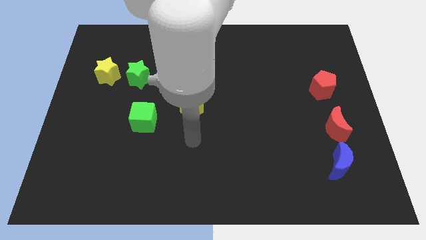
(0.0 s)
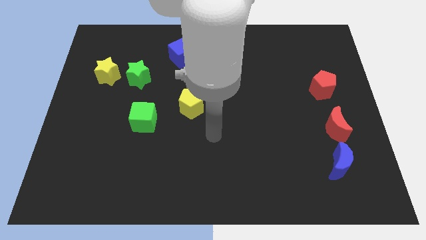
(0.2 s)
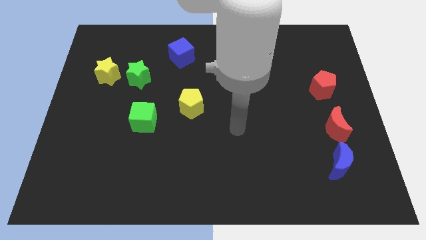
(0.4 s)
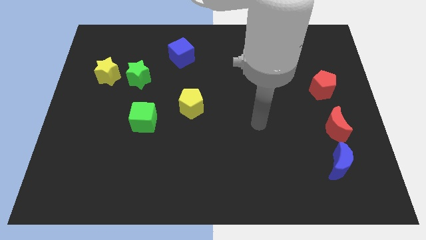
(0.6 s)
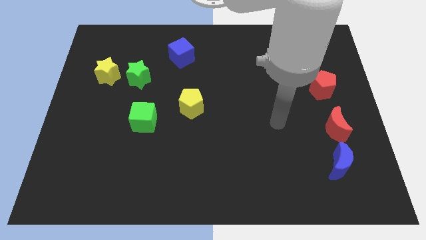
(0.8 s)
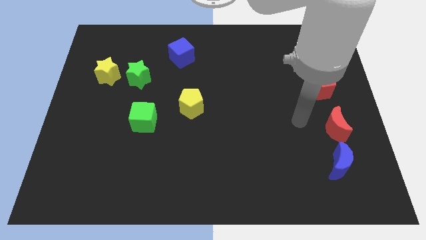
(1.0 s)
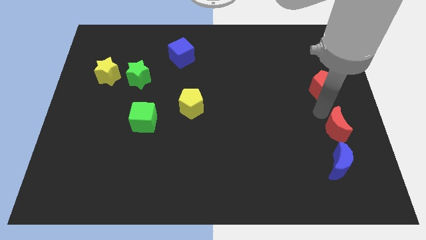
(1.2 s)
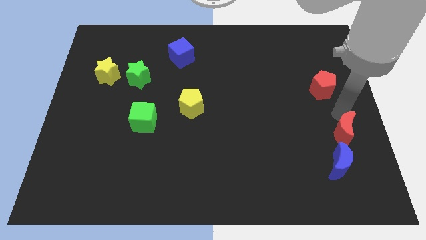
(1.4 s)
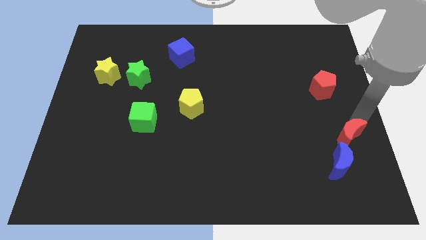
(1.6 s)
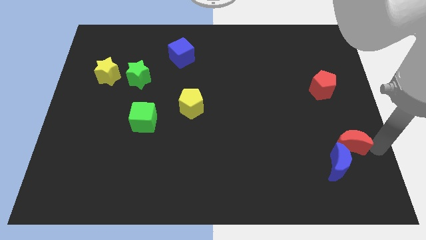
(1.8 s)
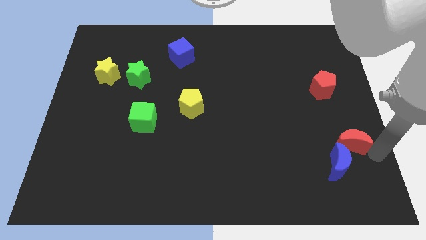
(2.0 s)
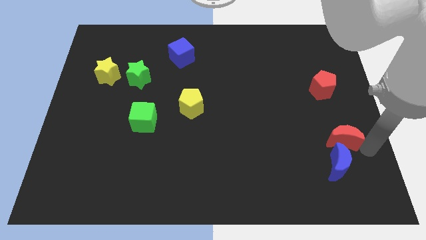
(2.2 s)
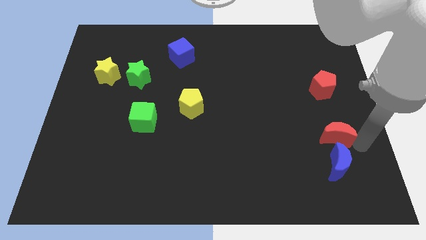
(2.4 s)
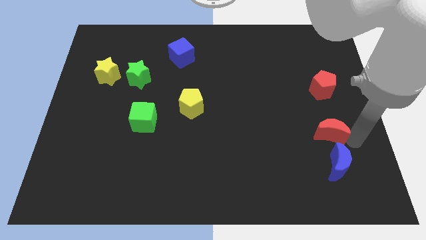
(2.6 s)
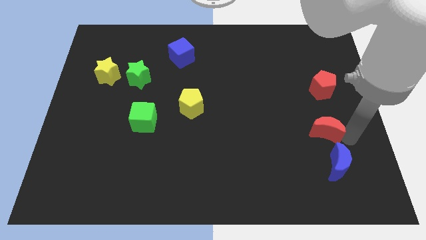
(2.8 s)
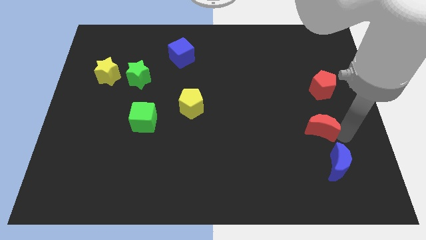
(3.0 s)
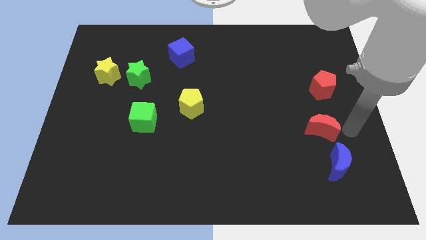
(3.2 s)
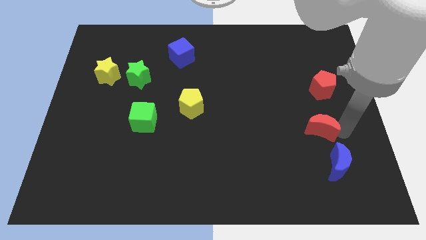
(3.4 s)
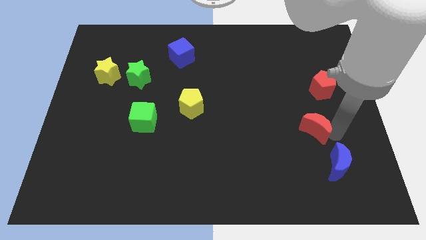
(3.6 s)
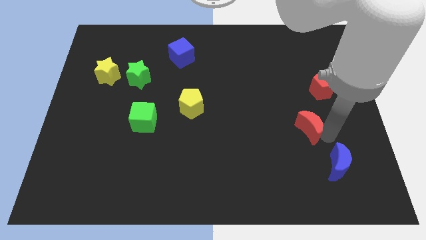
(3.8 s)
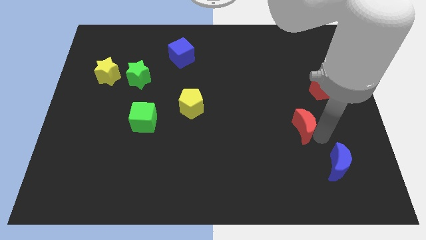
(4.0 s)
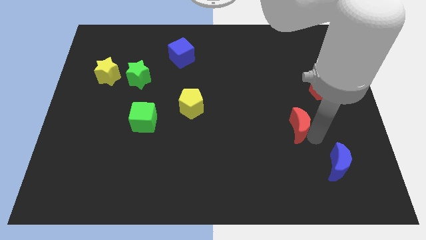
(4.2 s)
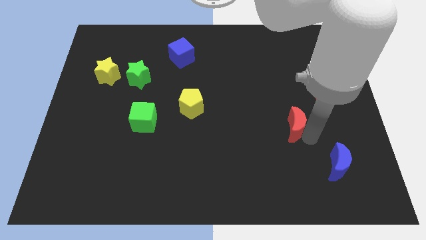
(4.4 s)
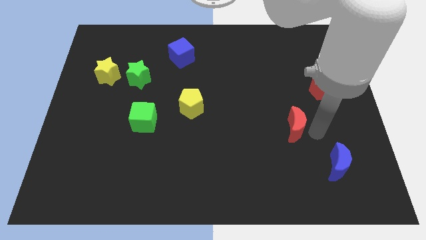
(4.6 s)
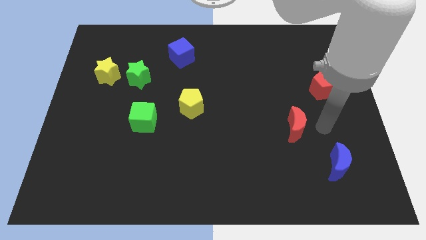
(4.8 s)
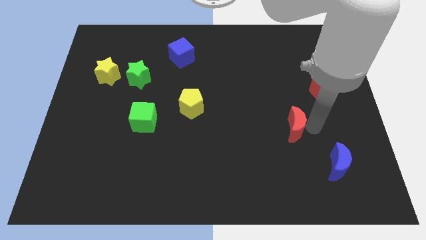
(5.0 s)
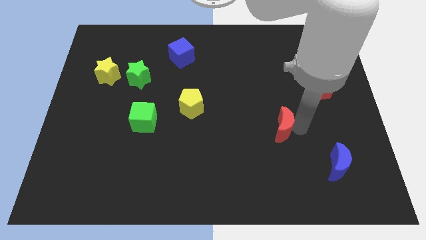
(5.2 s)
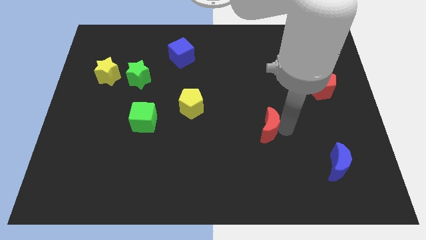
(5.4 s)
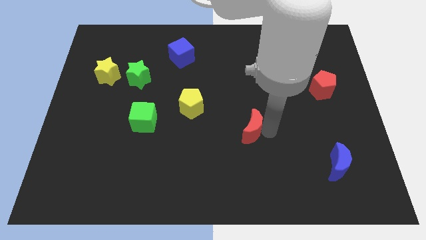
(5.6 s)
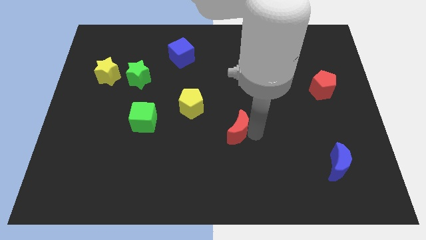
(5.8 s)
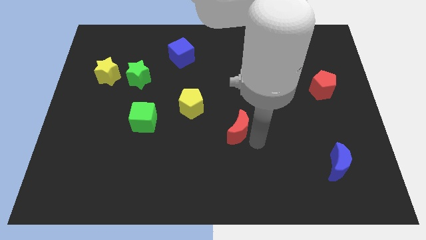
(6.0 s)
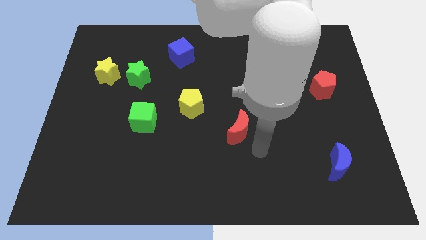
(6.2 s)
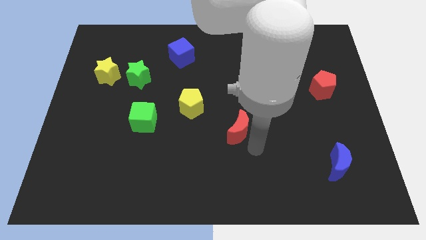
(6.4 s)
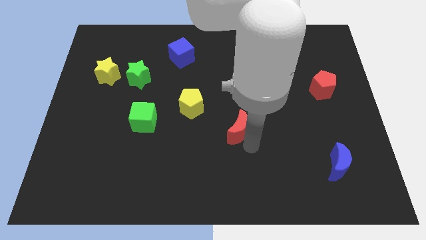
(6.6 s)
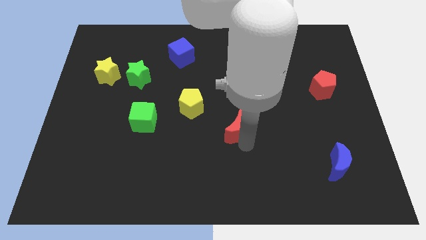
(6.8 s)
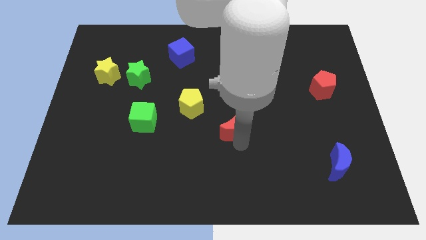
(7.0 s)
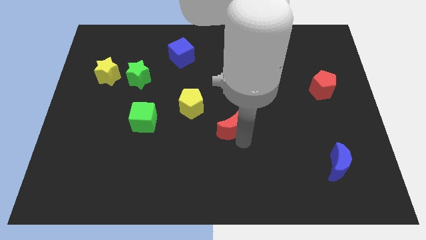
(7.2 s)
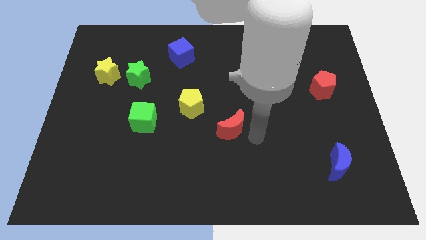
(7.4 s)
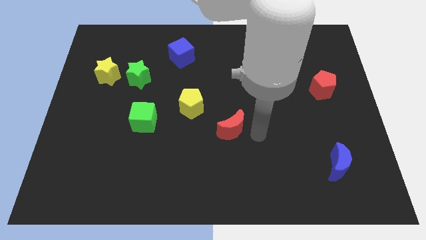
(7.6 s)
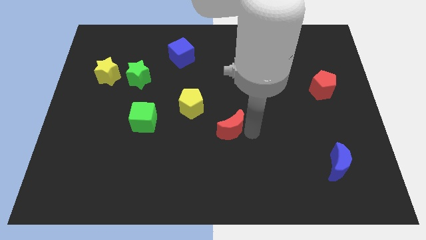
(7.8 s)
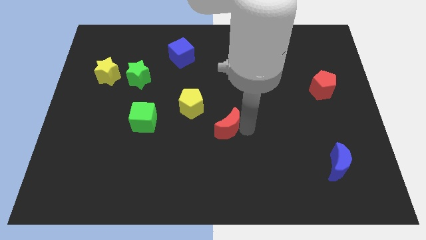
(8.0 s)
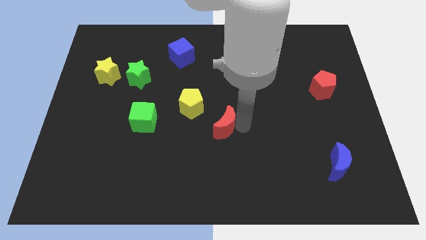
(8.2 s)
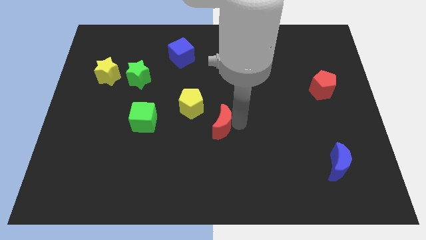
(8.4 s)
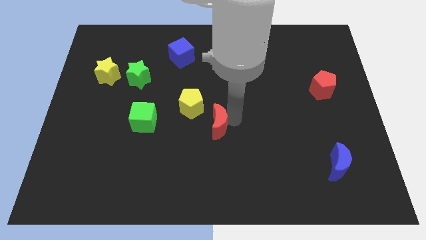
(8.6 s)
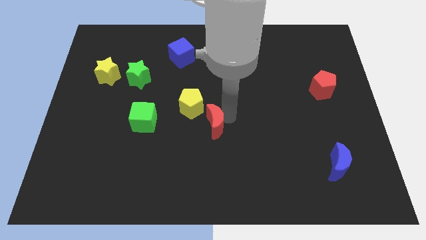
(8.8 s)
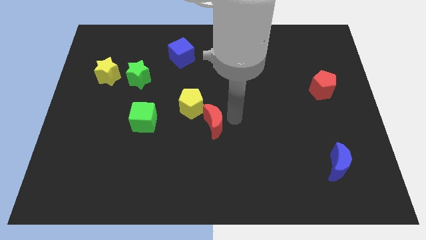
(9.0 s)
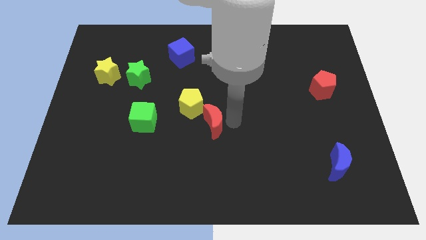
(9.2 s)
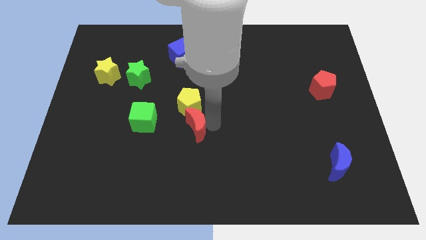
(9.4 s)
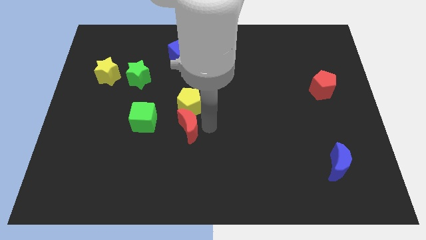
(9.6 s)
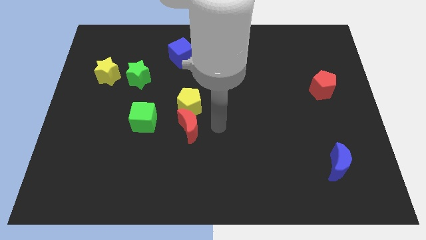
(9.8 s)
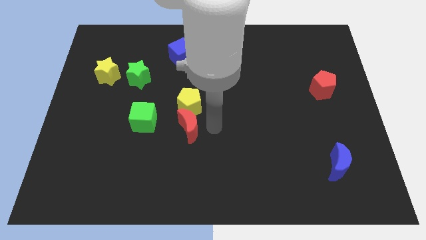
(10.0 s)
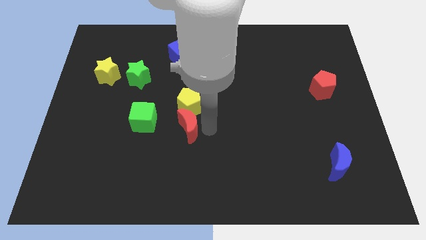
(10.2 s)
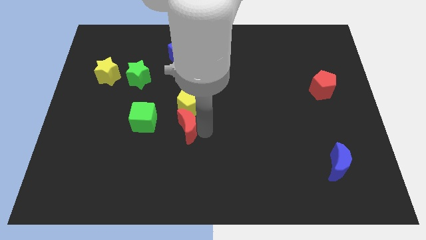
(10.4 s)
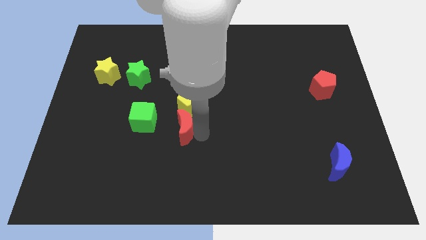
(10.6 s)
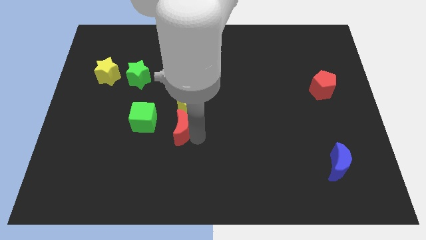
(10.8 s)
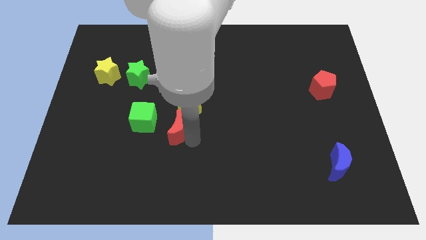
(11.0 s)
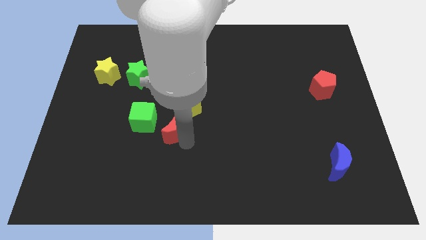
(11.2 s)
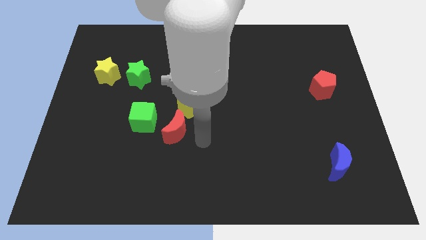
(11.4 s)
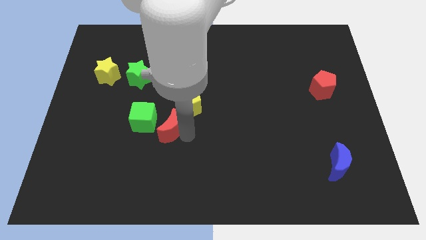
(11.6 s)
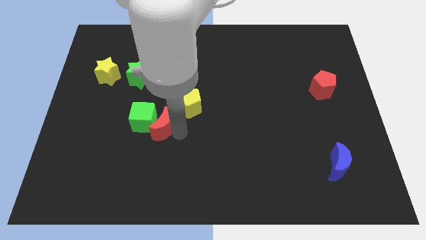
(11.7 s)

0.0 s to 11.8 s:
push the red moon next to the green cube

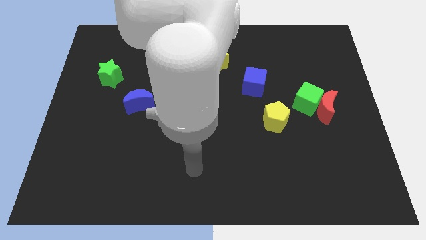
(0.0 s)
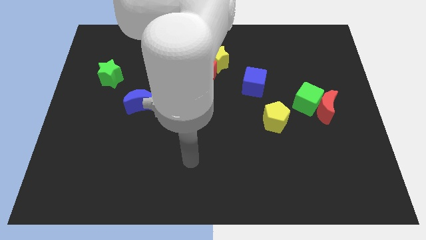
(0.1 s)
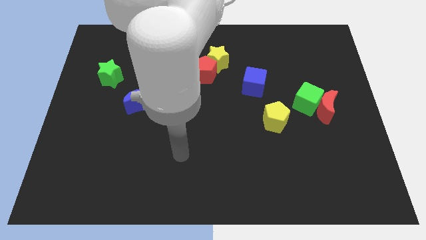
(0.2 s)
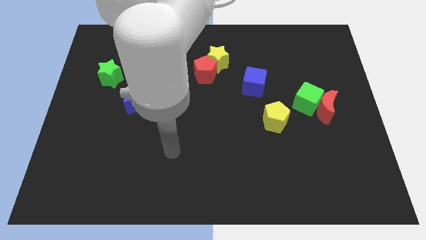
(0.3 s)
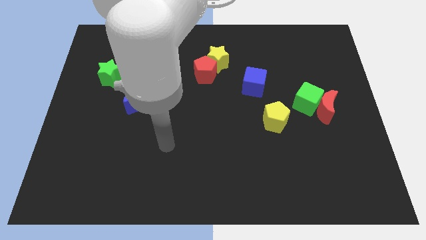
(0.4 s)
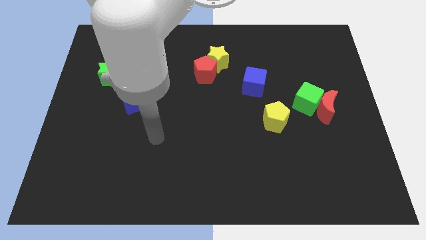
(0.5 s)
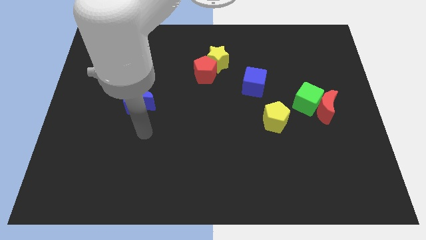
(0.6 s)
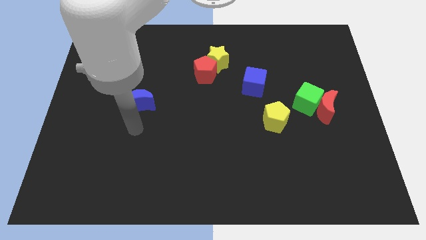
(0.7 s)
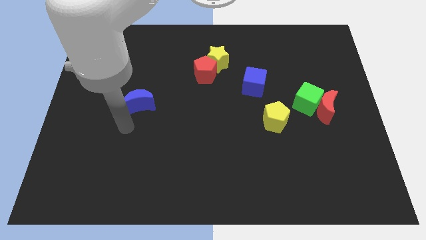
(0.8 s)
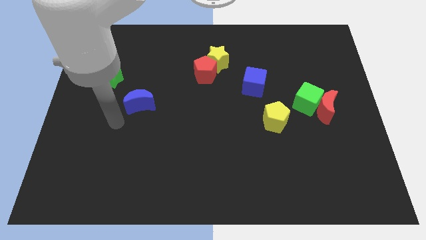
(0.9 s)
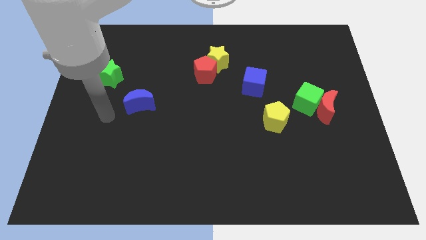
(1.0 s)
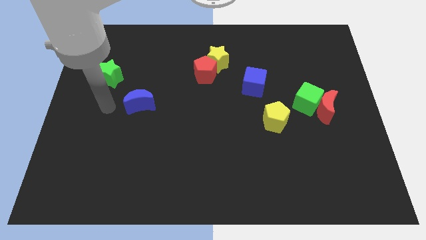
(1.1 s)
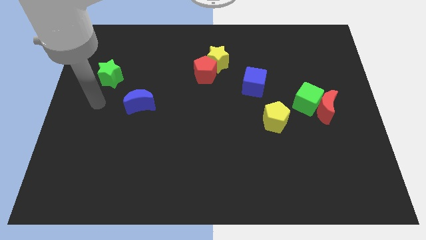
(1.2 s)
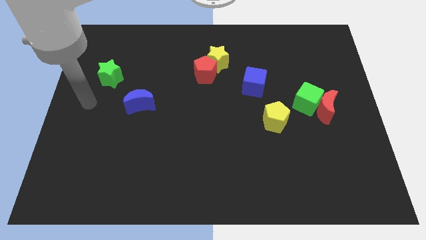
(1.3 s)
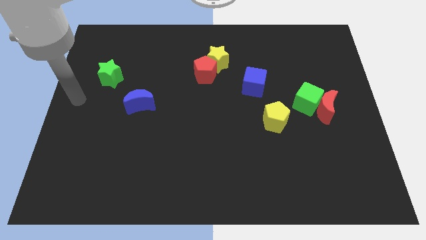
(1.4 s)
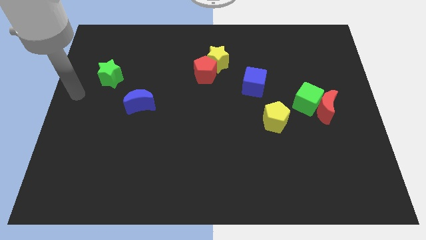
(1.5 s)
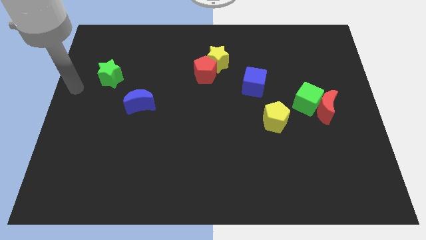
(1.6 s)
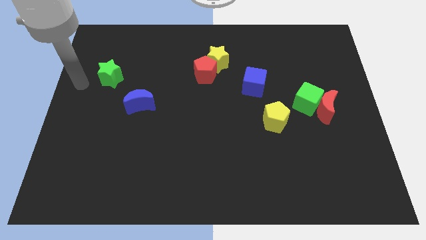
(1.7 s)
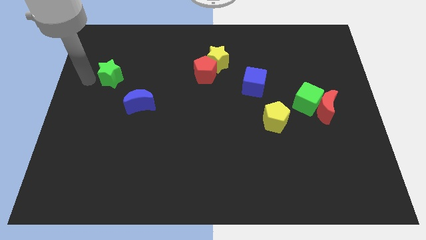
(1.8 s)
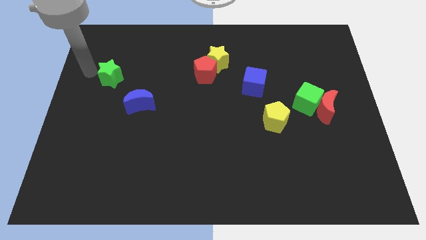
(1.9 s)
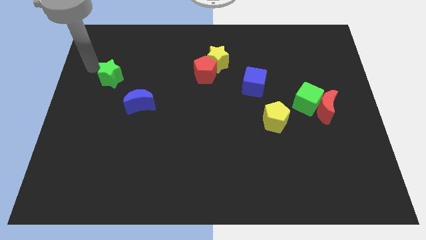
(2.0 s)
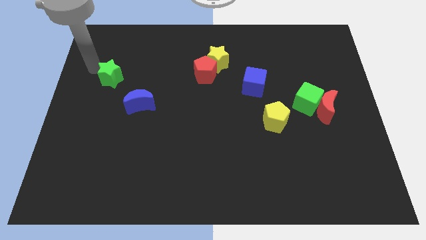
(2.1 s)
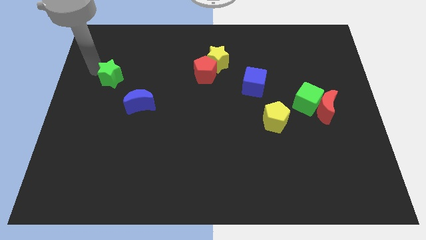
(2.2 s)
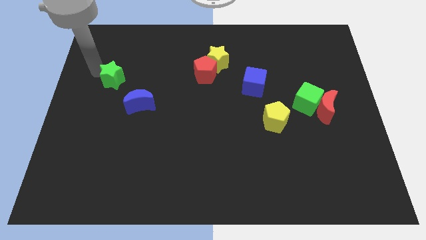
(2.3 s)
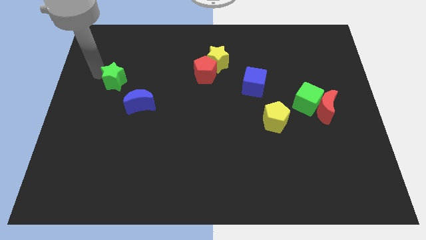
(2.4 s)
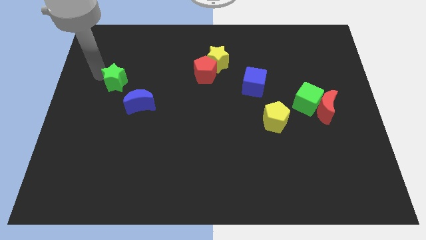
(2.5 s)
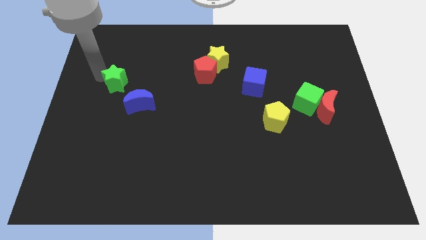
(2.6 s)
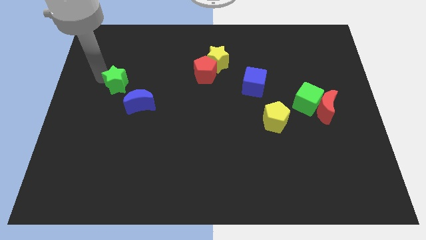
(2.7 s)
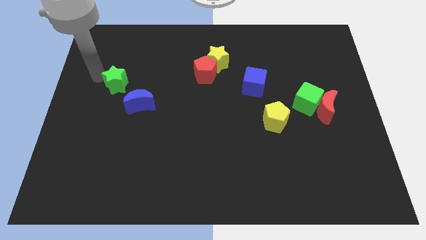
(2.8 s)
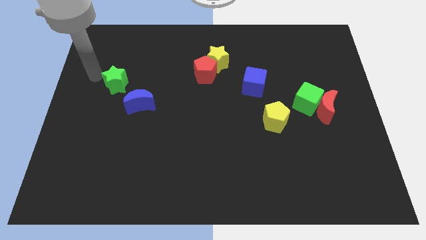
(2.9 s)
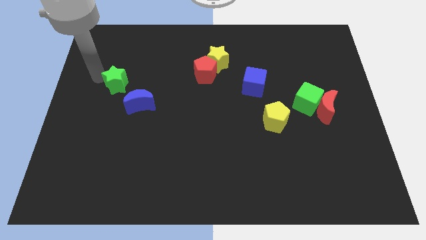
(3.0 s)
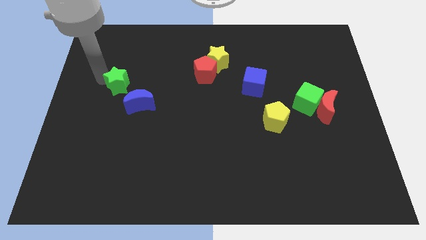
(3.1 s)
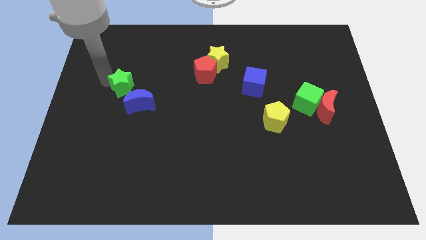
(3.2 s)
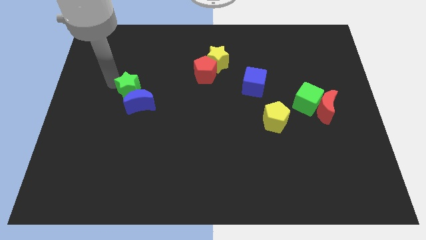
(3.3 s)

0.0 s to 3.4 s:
put the green star close to the blue moon
